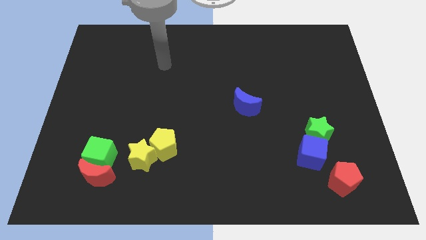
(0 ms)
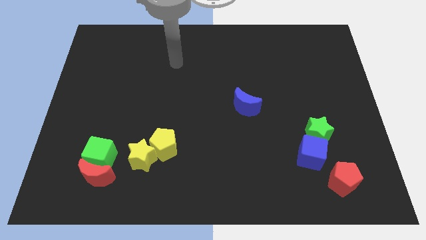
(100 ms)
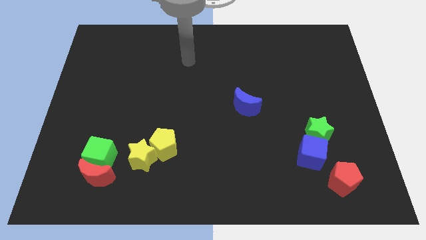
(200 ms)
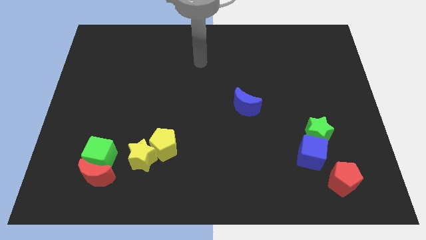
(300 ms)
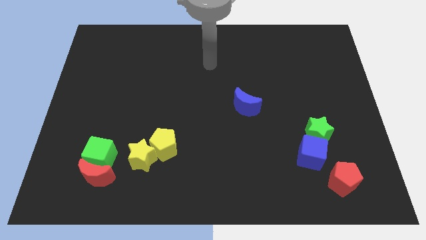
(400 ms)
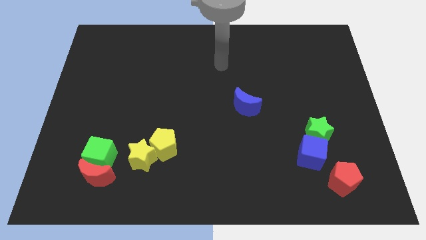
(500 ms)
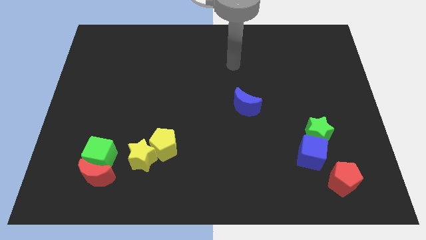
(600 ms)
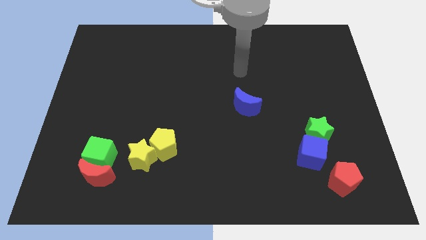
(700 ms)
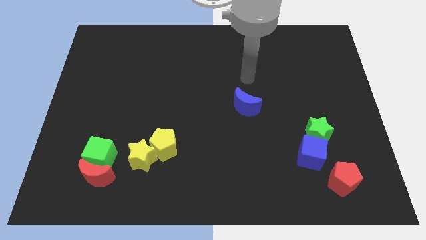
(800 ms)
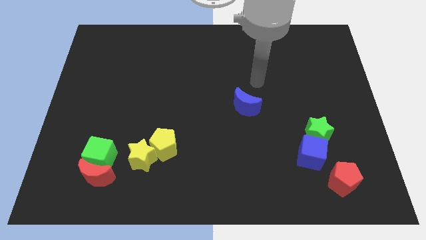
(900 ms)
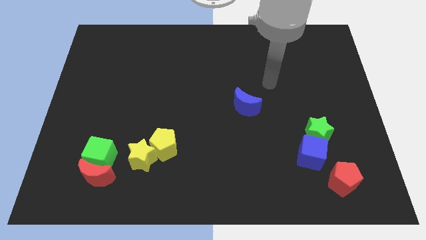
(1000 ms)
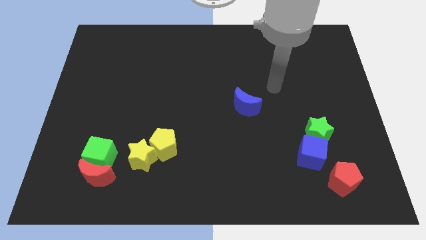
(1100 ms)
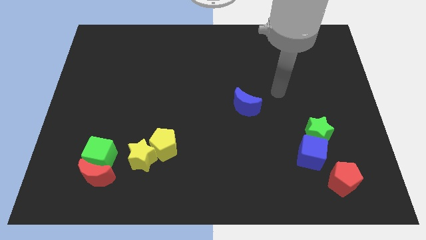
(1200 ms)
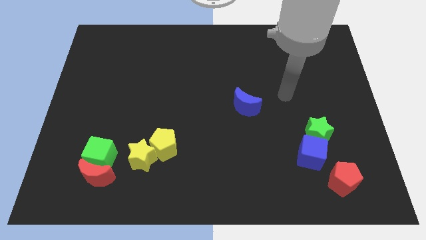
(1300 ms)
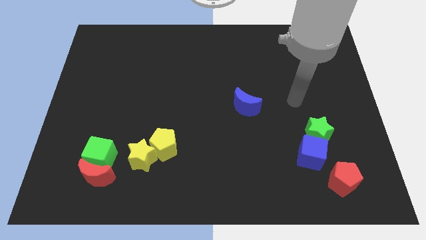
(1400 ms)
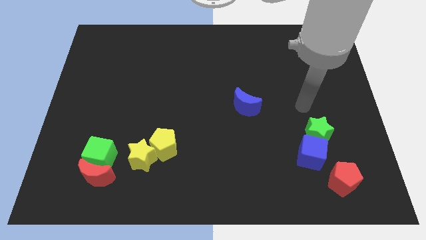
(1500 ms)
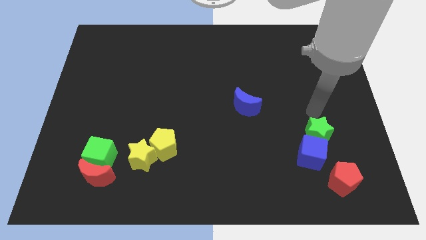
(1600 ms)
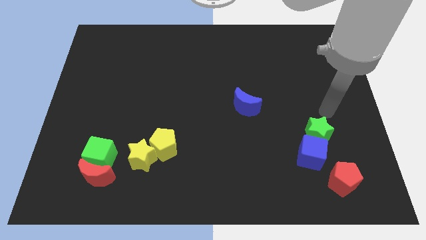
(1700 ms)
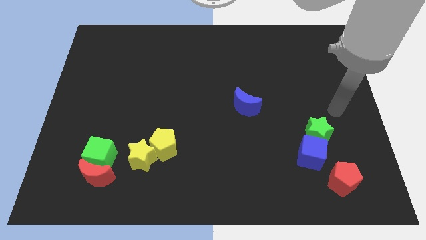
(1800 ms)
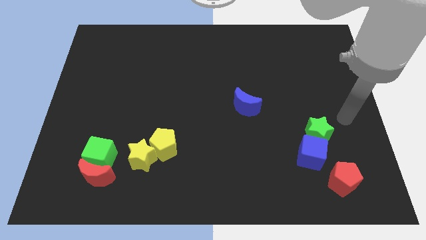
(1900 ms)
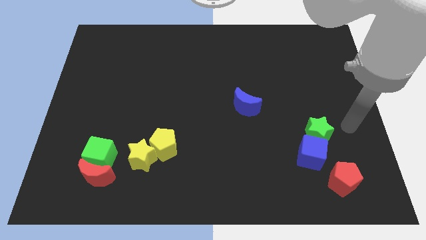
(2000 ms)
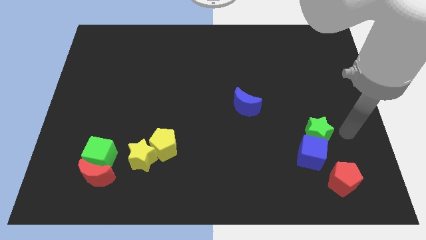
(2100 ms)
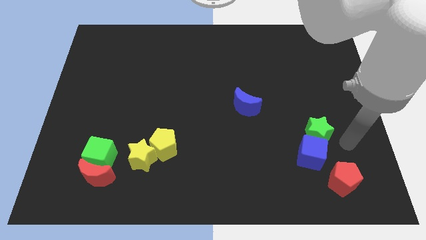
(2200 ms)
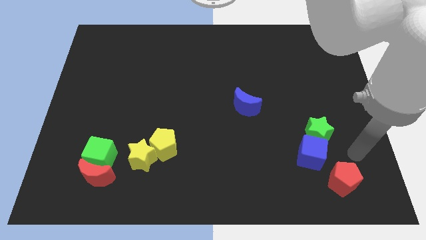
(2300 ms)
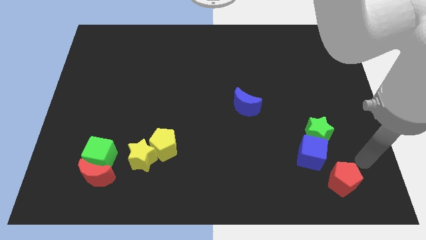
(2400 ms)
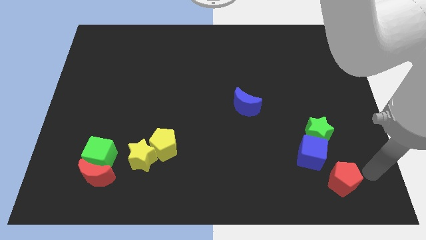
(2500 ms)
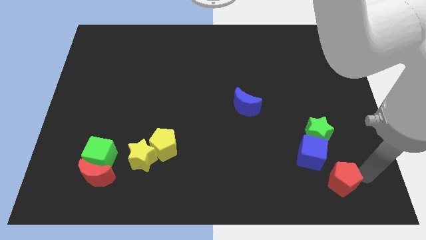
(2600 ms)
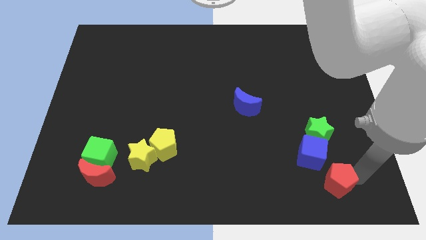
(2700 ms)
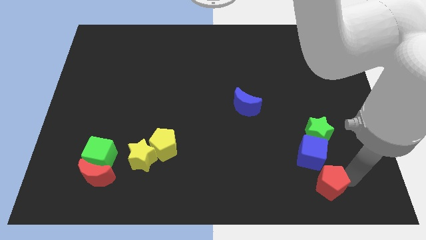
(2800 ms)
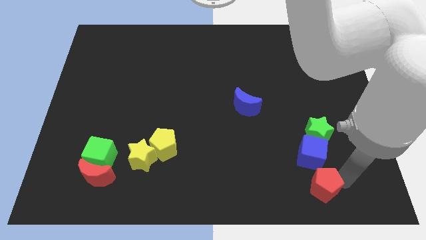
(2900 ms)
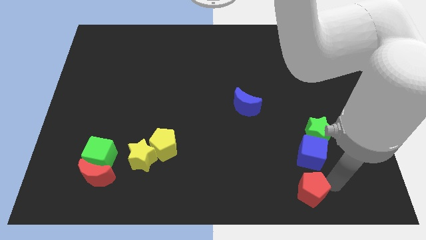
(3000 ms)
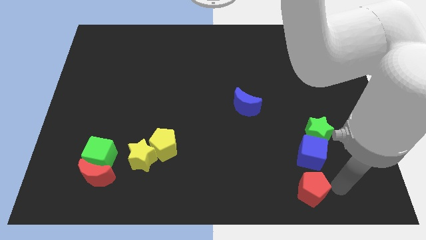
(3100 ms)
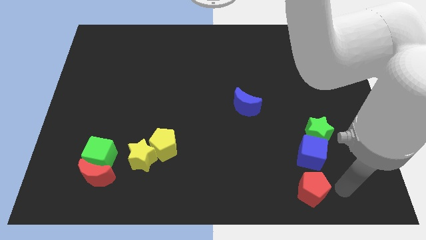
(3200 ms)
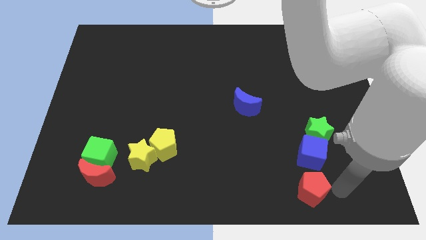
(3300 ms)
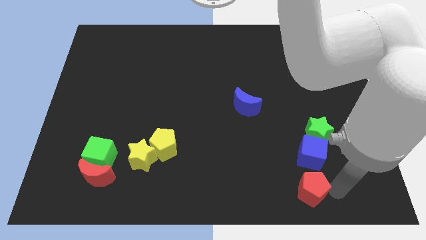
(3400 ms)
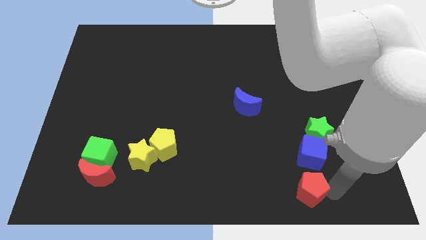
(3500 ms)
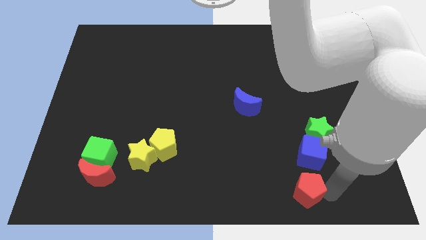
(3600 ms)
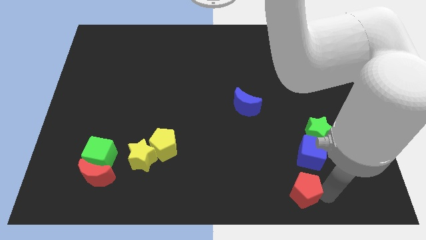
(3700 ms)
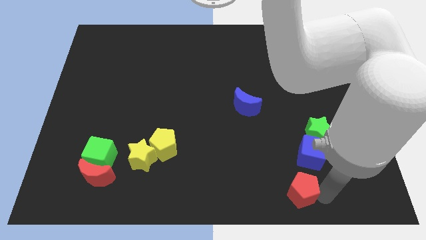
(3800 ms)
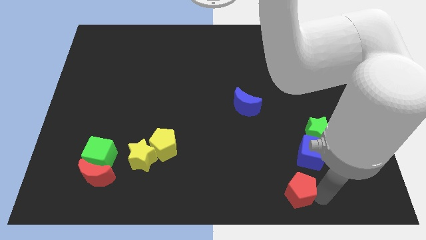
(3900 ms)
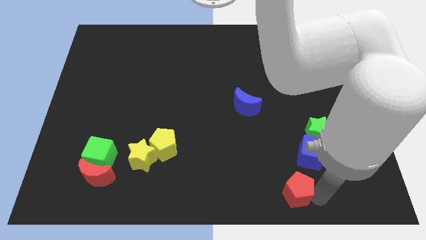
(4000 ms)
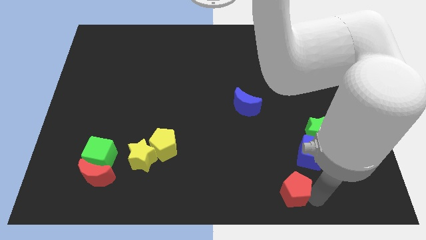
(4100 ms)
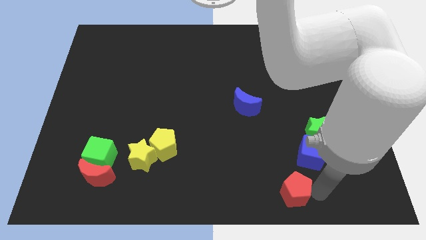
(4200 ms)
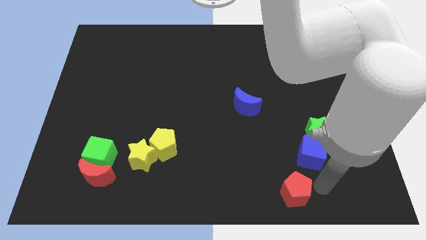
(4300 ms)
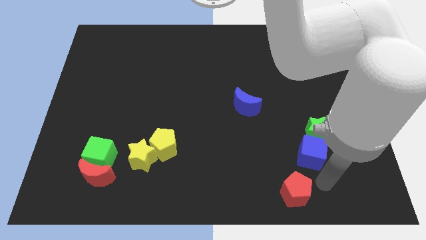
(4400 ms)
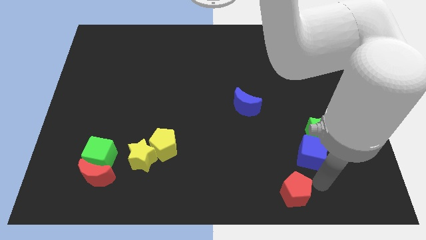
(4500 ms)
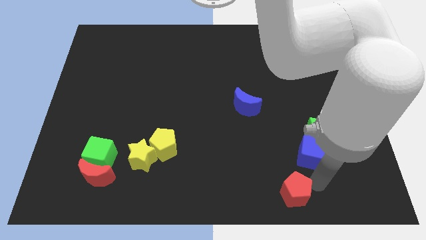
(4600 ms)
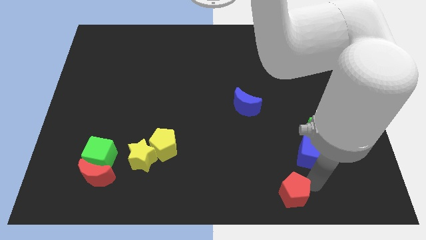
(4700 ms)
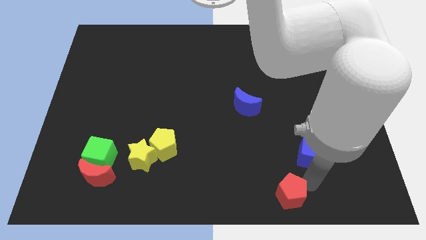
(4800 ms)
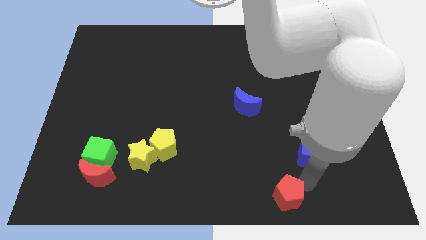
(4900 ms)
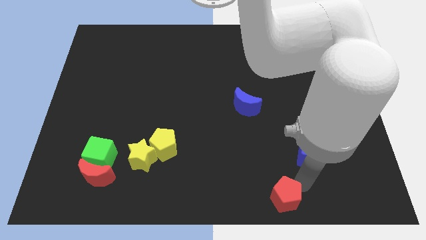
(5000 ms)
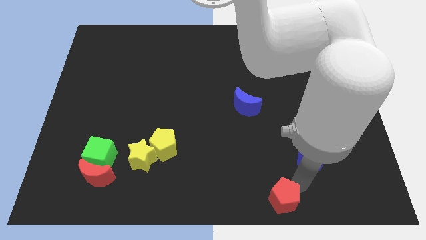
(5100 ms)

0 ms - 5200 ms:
slide the red pentagon to the bottom side

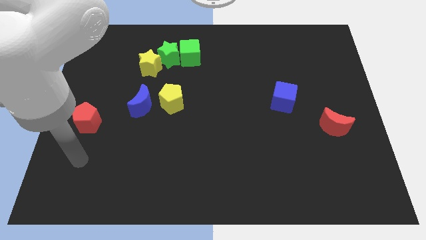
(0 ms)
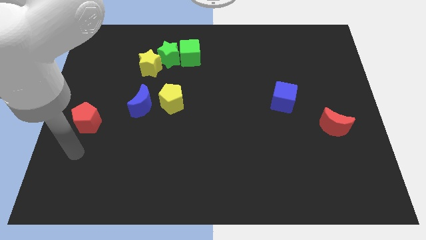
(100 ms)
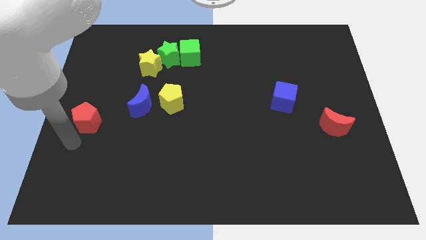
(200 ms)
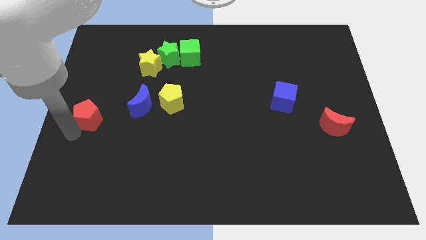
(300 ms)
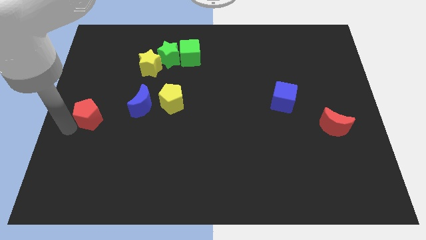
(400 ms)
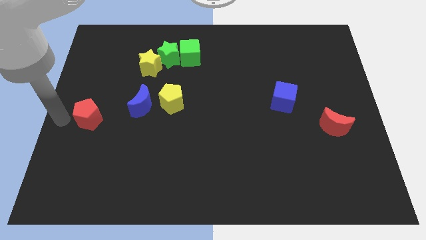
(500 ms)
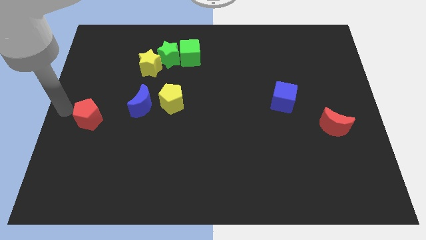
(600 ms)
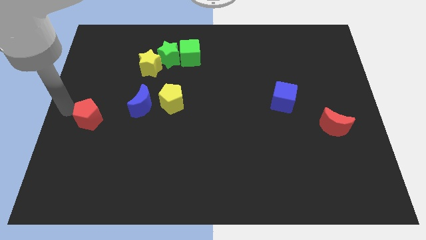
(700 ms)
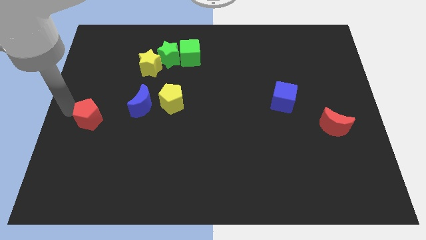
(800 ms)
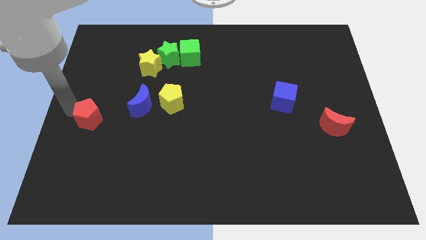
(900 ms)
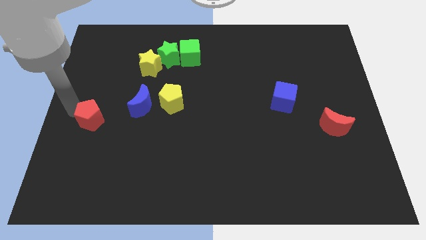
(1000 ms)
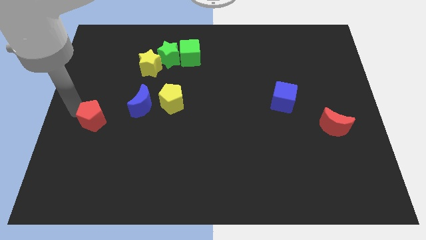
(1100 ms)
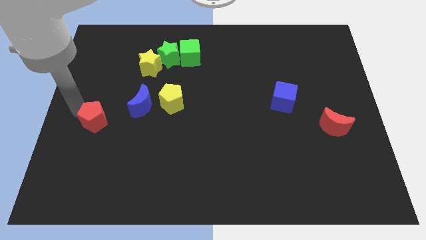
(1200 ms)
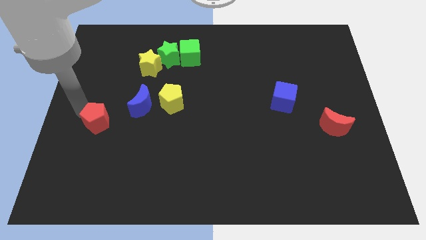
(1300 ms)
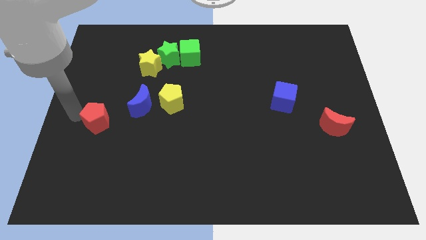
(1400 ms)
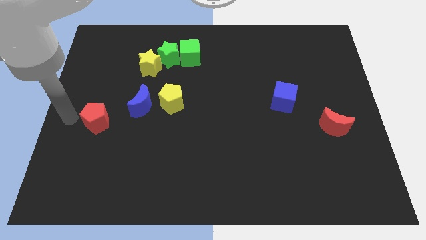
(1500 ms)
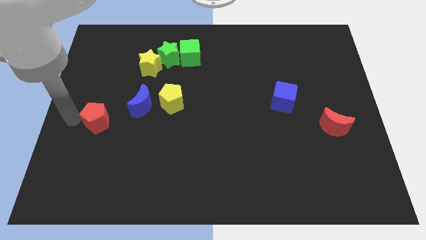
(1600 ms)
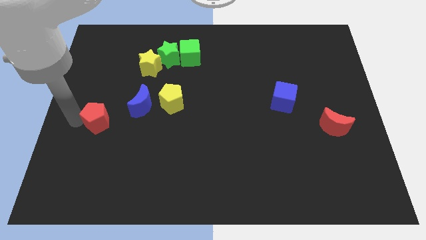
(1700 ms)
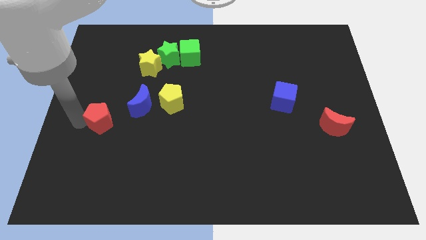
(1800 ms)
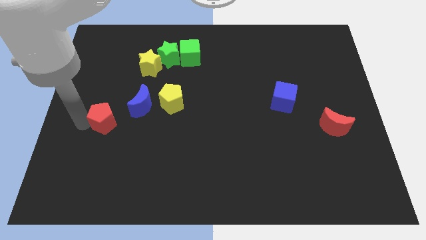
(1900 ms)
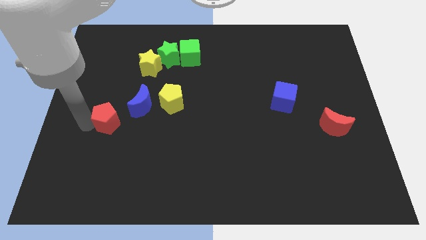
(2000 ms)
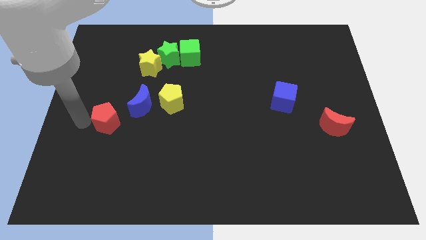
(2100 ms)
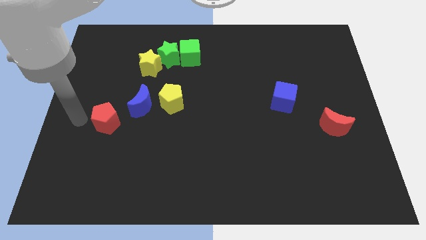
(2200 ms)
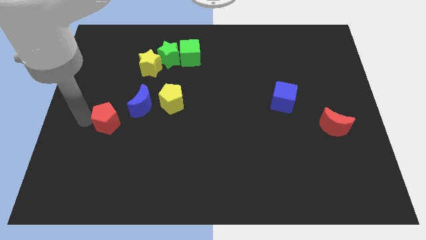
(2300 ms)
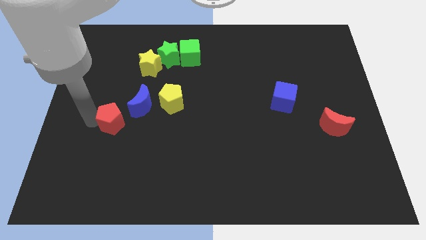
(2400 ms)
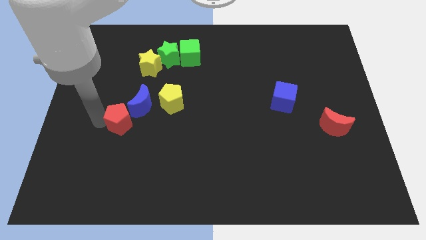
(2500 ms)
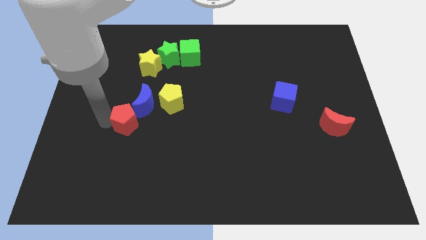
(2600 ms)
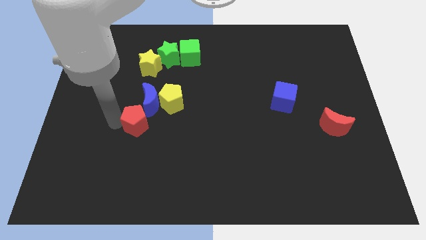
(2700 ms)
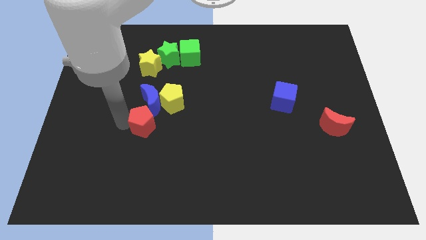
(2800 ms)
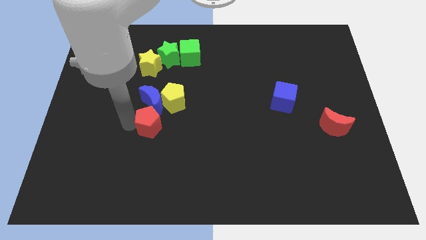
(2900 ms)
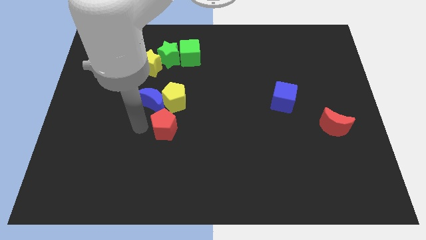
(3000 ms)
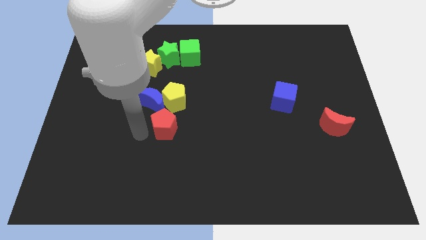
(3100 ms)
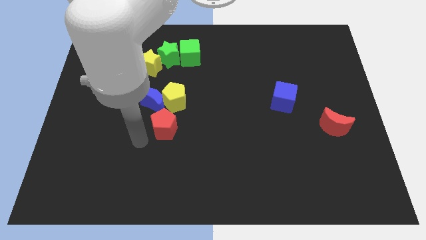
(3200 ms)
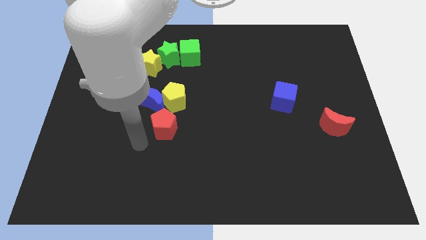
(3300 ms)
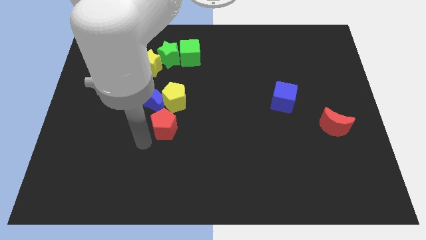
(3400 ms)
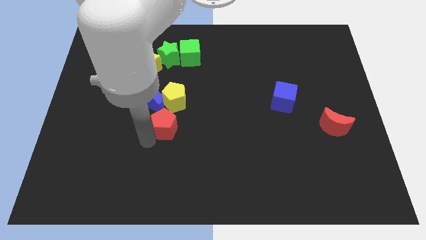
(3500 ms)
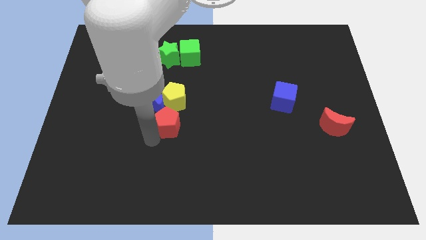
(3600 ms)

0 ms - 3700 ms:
put the red pentagon to the middle of the board
